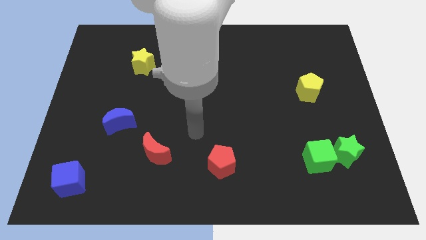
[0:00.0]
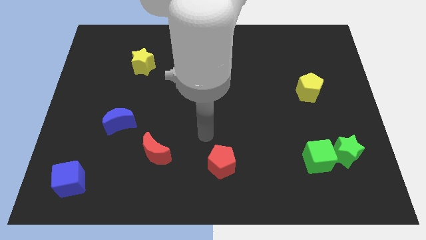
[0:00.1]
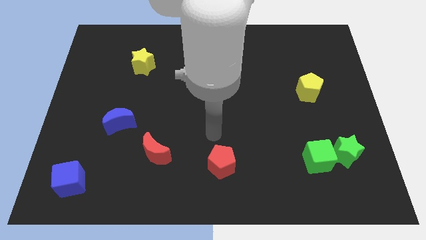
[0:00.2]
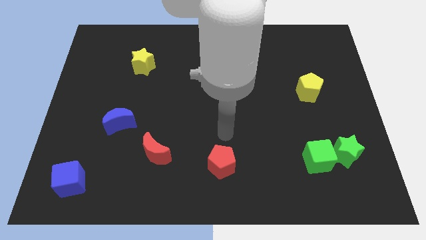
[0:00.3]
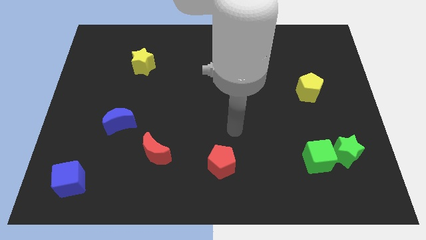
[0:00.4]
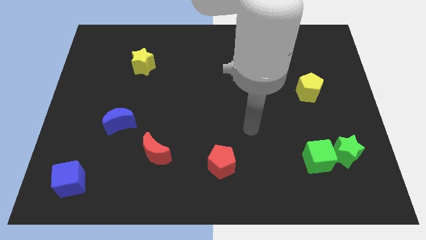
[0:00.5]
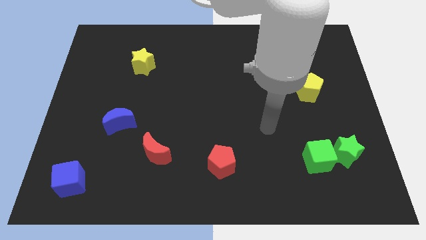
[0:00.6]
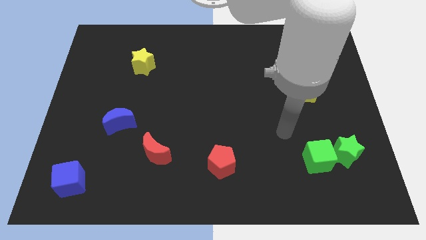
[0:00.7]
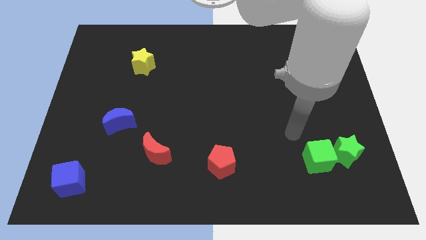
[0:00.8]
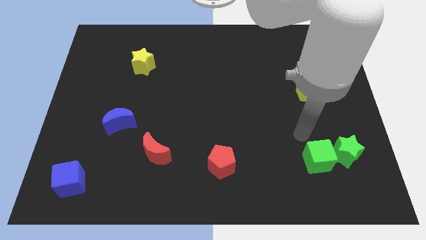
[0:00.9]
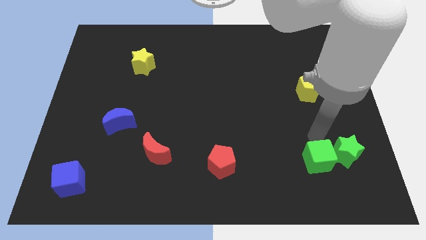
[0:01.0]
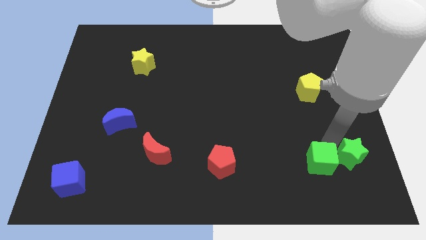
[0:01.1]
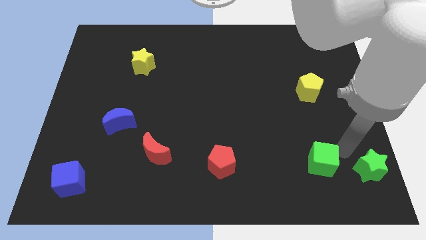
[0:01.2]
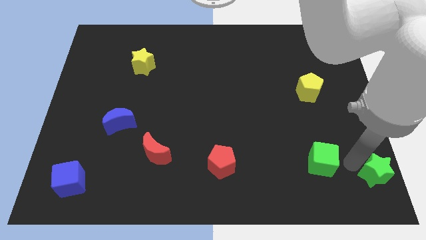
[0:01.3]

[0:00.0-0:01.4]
move the green cube away from the green star

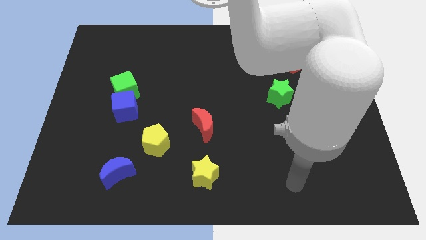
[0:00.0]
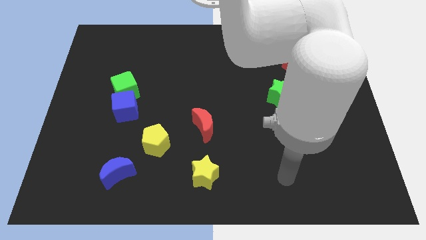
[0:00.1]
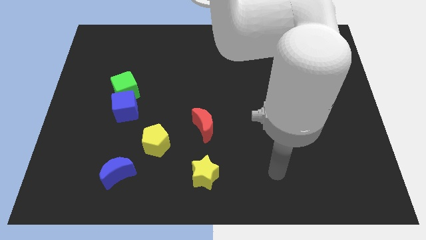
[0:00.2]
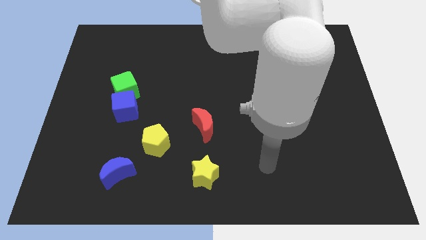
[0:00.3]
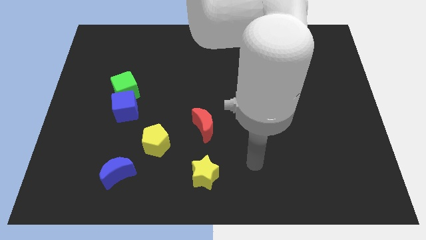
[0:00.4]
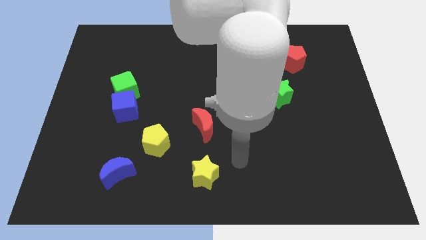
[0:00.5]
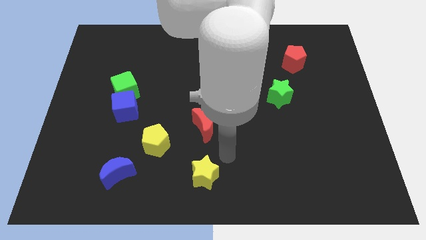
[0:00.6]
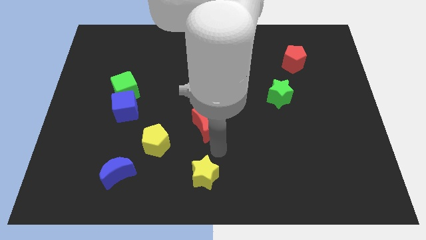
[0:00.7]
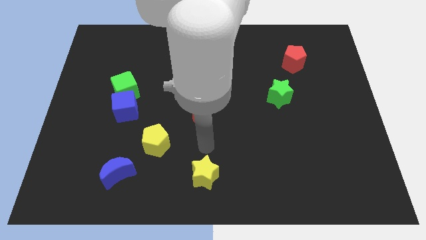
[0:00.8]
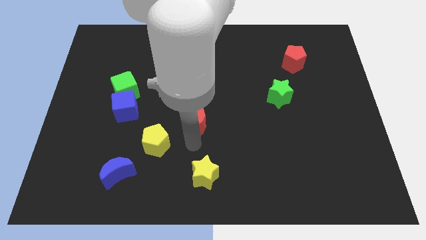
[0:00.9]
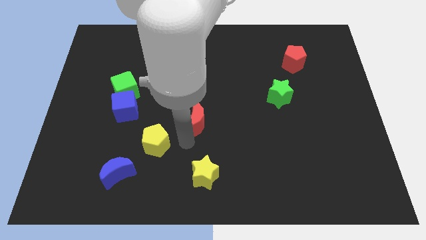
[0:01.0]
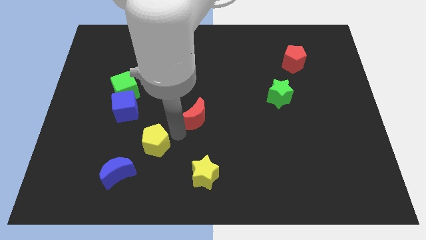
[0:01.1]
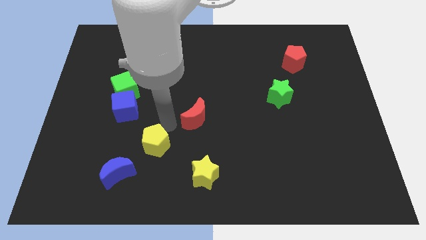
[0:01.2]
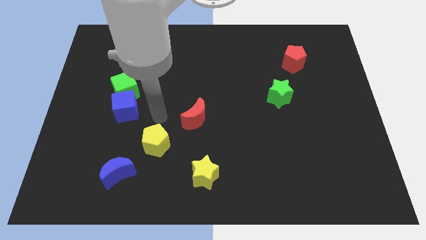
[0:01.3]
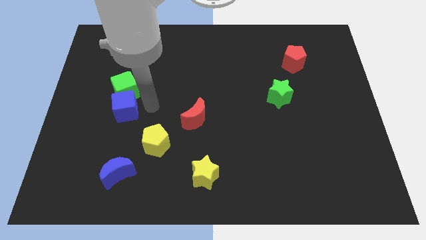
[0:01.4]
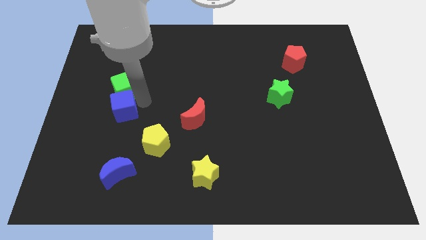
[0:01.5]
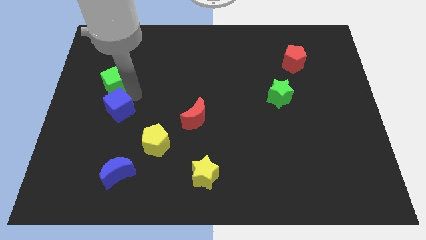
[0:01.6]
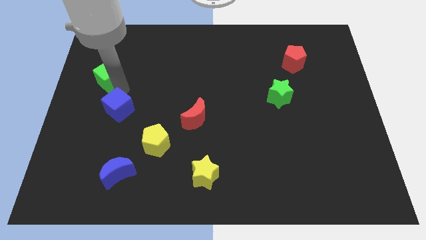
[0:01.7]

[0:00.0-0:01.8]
move the blue cube away from the green cube

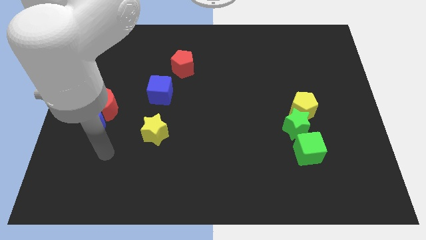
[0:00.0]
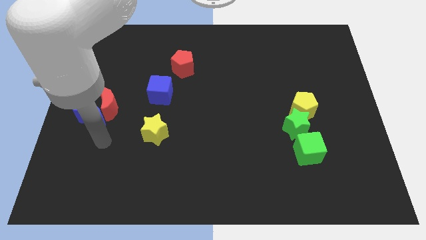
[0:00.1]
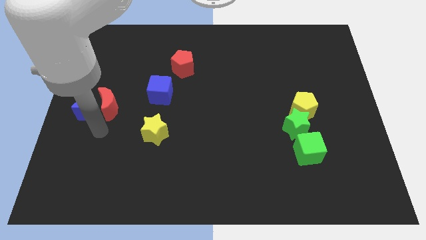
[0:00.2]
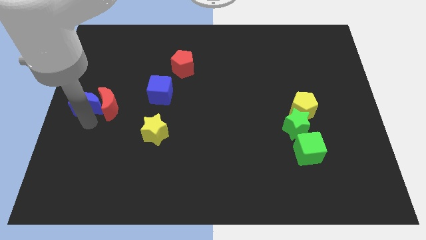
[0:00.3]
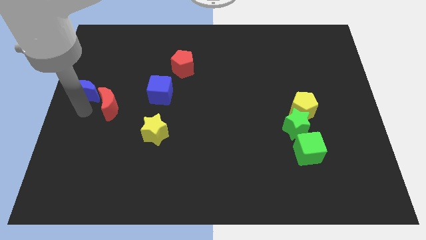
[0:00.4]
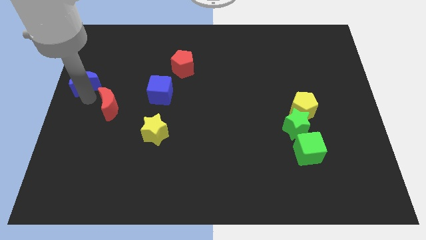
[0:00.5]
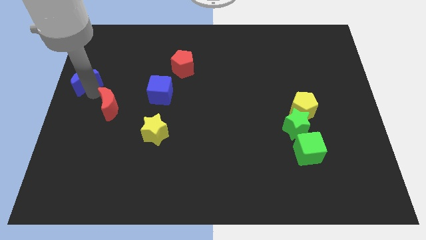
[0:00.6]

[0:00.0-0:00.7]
move the red moon away from the blue moon

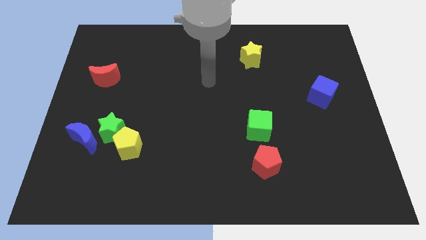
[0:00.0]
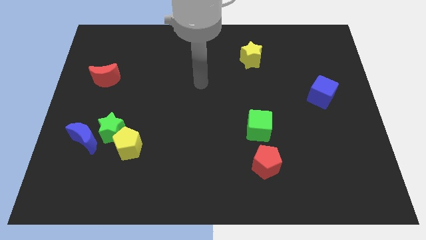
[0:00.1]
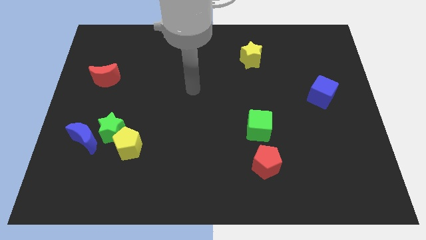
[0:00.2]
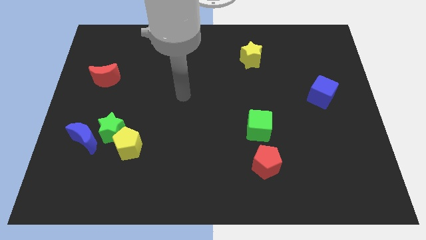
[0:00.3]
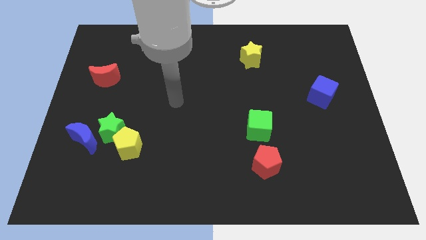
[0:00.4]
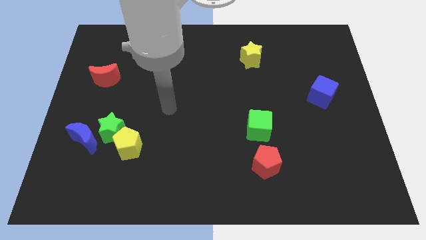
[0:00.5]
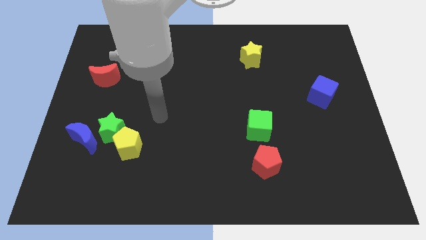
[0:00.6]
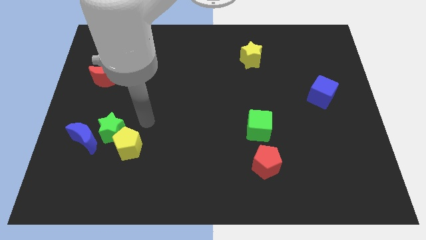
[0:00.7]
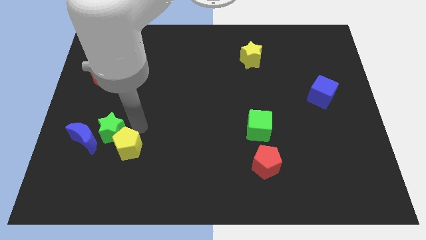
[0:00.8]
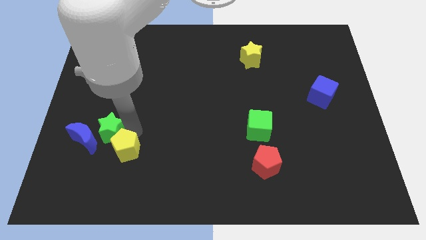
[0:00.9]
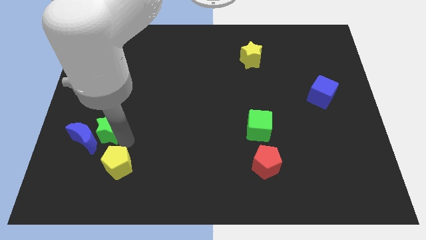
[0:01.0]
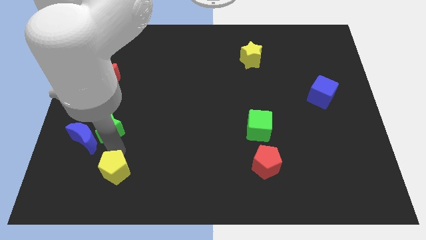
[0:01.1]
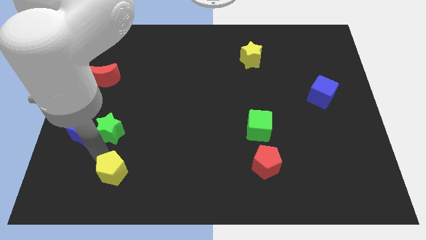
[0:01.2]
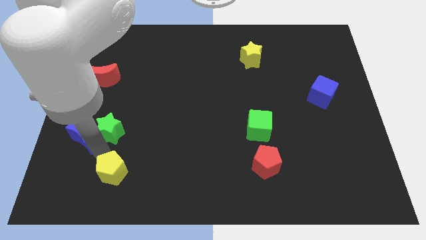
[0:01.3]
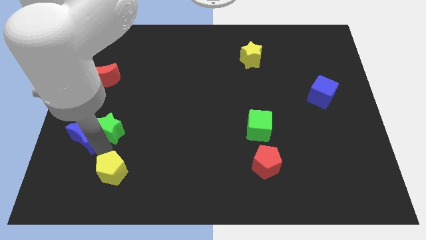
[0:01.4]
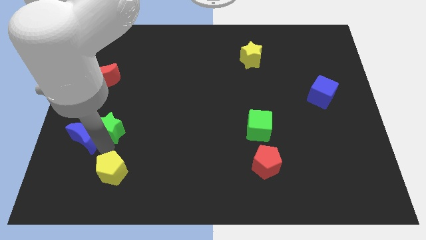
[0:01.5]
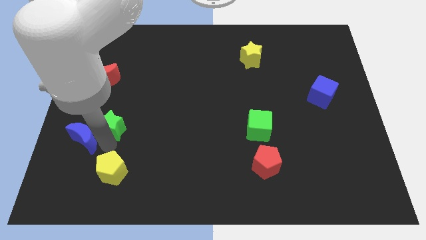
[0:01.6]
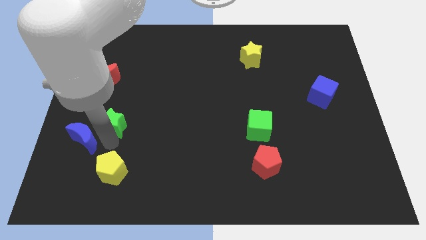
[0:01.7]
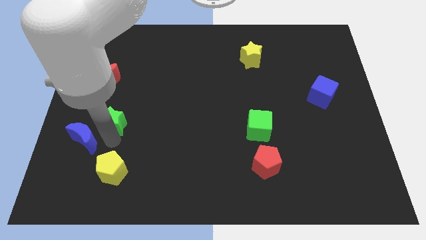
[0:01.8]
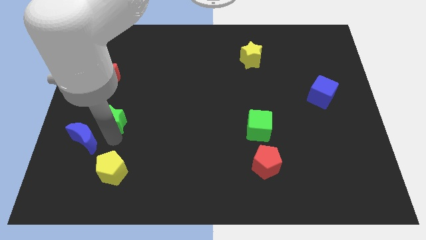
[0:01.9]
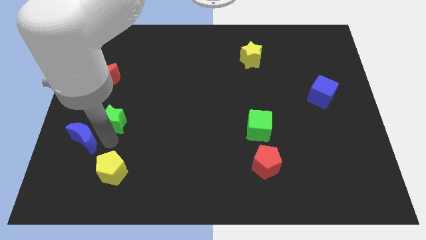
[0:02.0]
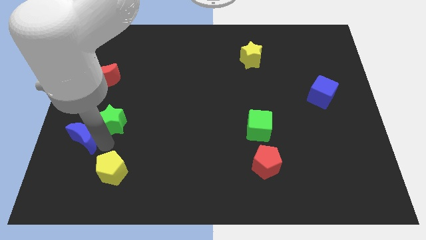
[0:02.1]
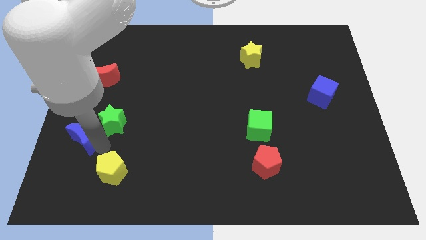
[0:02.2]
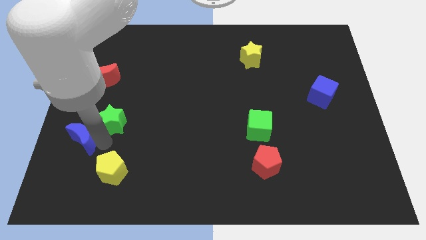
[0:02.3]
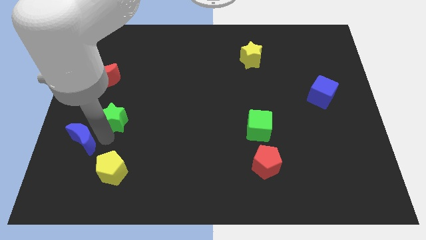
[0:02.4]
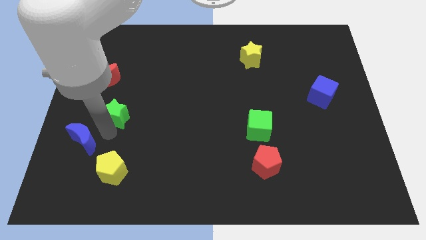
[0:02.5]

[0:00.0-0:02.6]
separate the green star from the blue moon and yellow pentagon

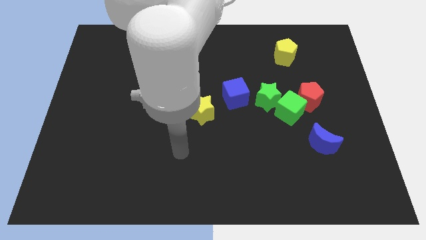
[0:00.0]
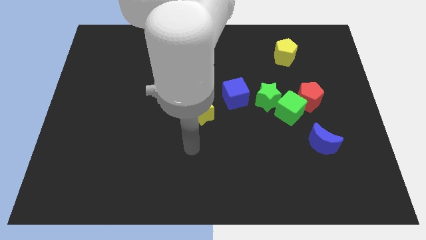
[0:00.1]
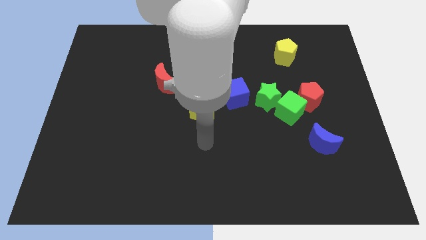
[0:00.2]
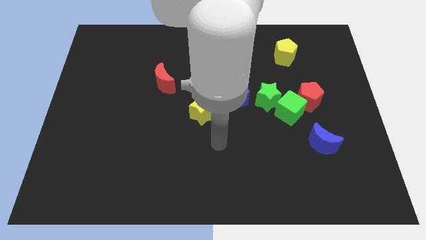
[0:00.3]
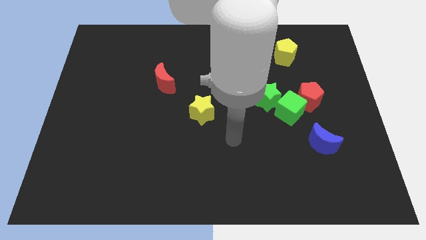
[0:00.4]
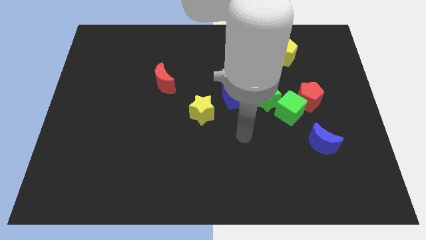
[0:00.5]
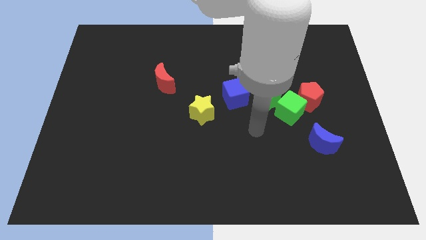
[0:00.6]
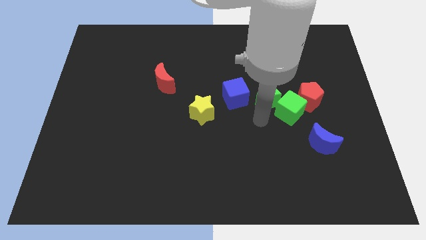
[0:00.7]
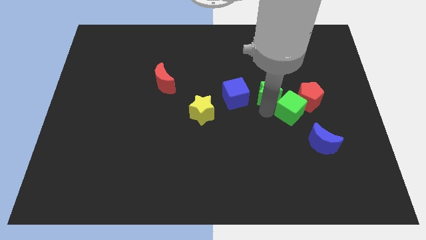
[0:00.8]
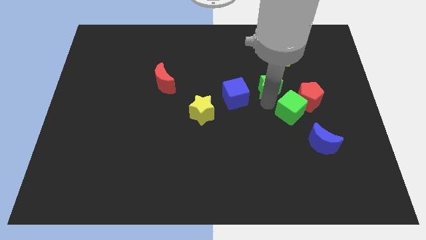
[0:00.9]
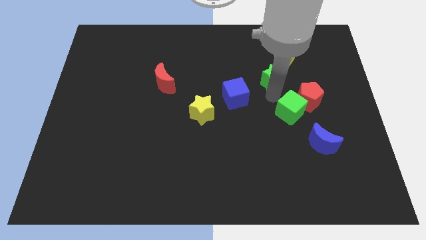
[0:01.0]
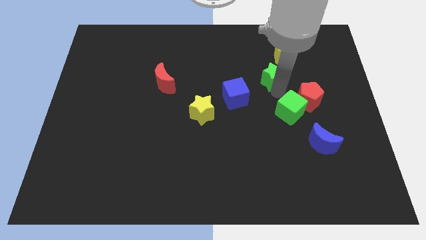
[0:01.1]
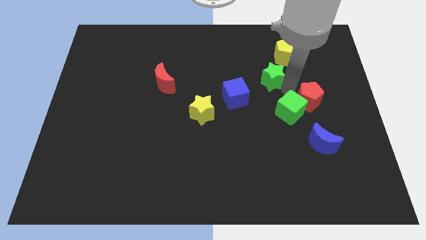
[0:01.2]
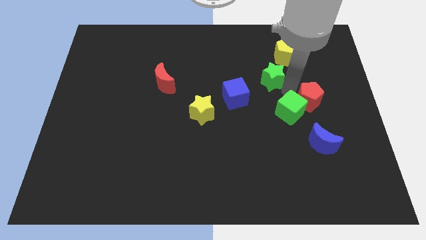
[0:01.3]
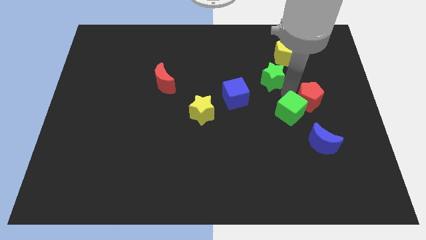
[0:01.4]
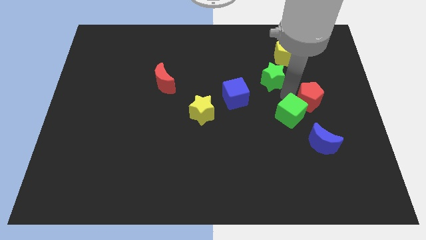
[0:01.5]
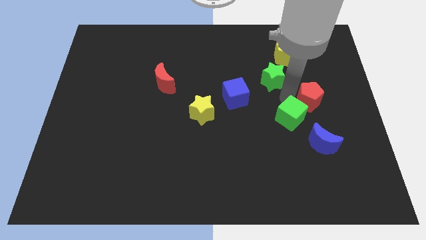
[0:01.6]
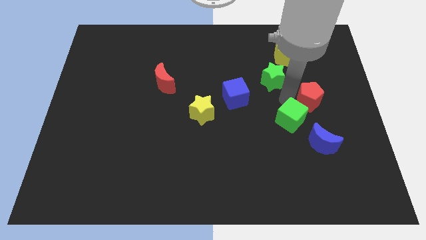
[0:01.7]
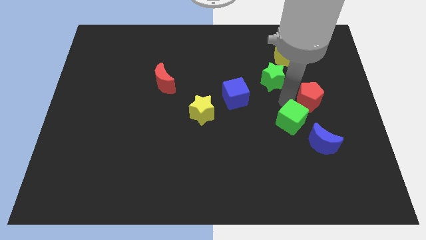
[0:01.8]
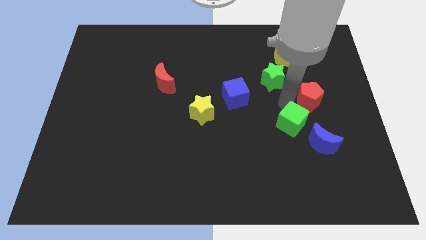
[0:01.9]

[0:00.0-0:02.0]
pull the green cube apart from the red pentagon and green star

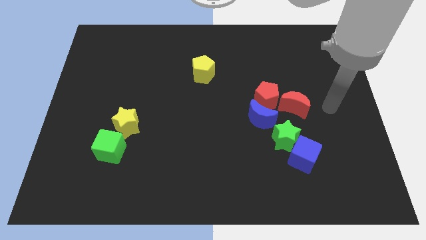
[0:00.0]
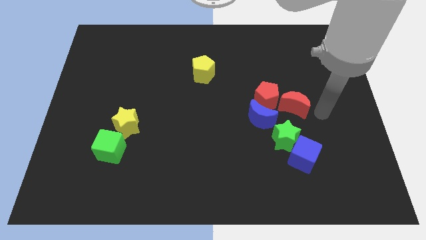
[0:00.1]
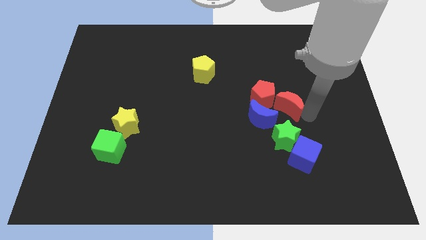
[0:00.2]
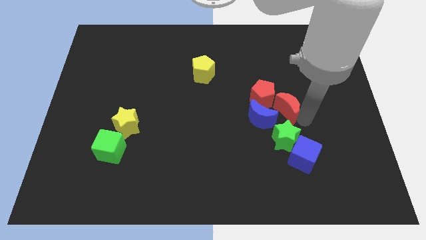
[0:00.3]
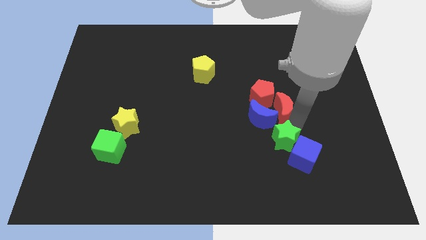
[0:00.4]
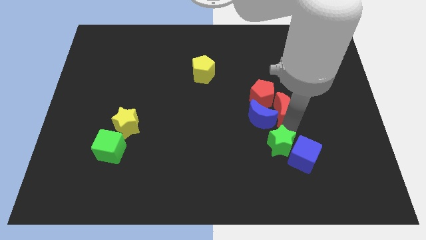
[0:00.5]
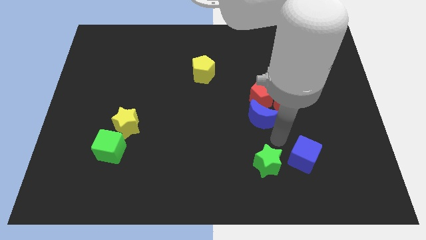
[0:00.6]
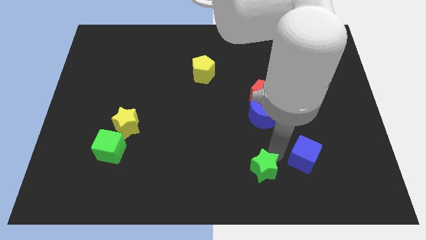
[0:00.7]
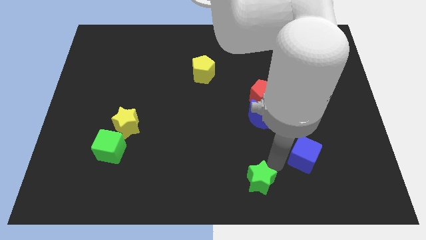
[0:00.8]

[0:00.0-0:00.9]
move the blue cube away from the green star
